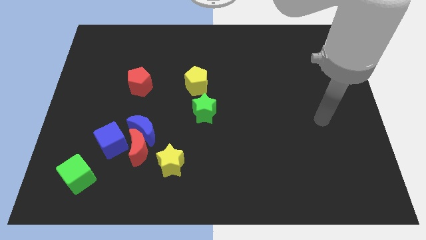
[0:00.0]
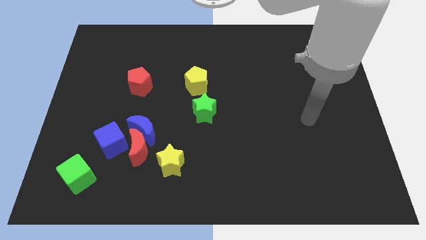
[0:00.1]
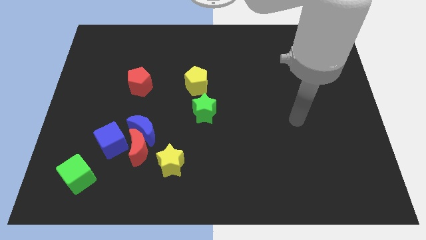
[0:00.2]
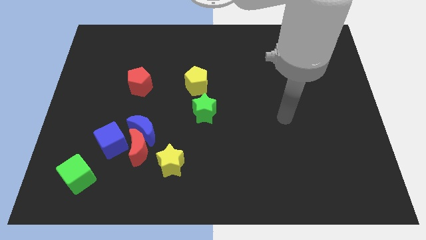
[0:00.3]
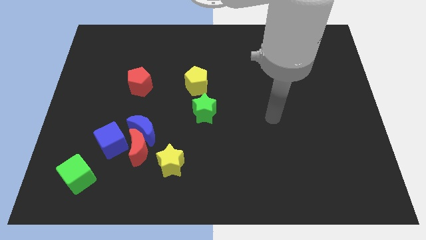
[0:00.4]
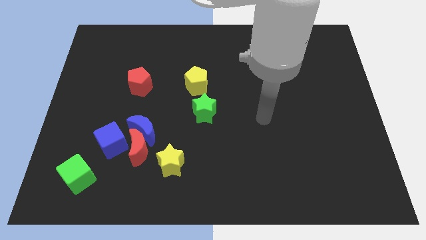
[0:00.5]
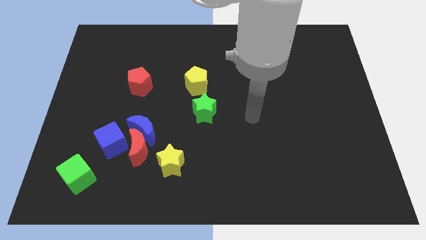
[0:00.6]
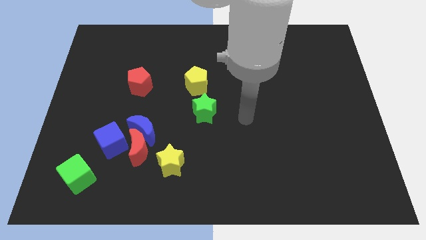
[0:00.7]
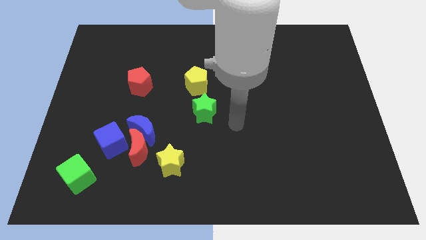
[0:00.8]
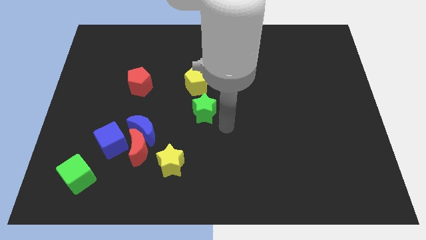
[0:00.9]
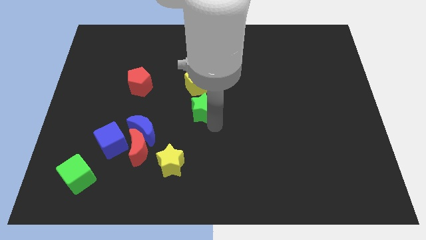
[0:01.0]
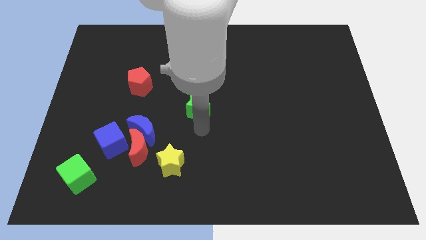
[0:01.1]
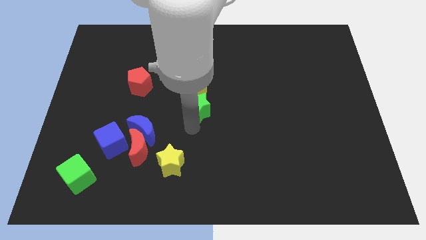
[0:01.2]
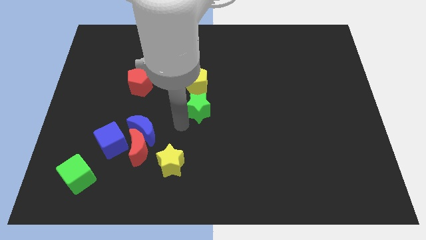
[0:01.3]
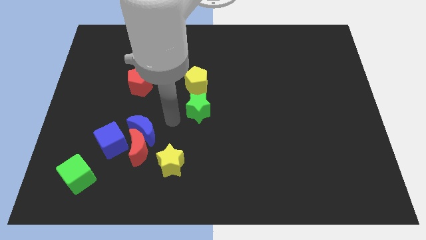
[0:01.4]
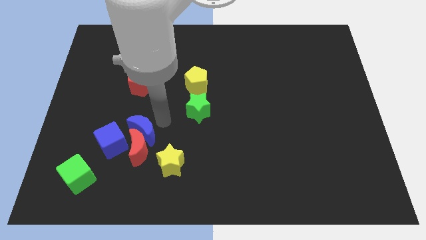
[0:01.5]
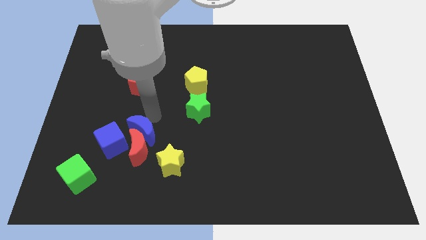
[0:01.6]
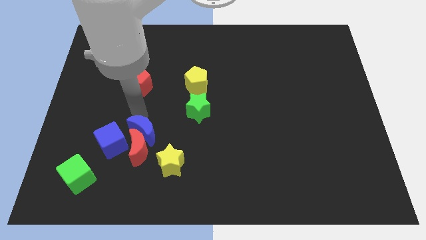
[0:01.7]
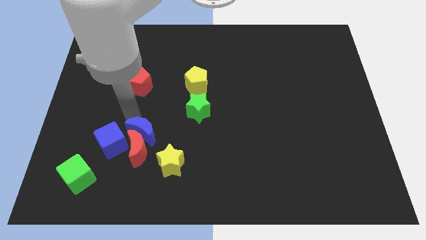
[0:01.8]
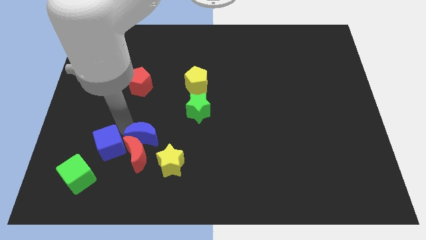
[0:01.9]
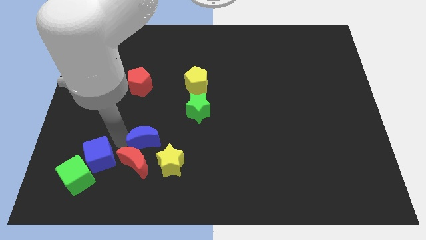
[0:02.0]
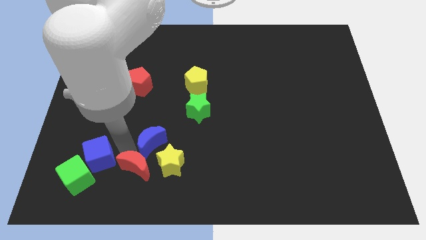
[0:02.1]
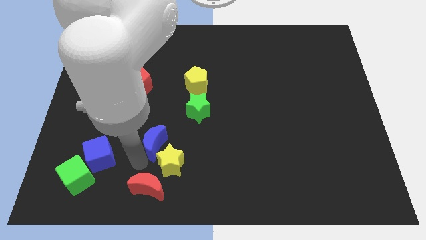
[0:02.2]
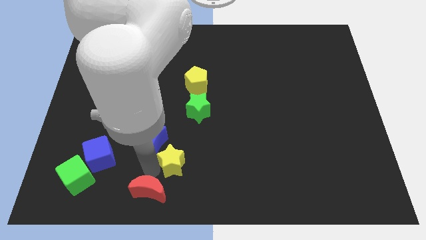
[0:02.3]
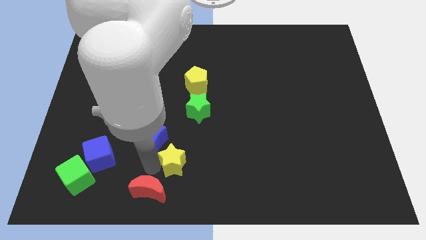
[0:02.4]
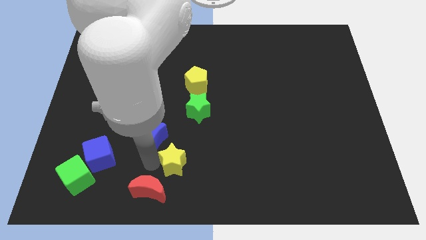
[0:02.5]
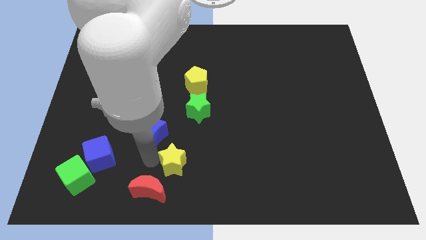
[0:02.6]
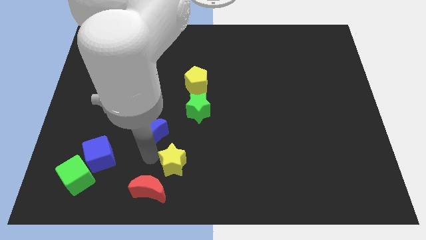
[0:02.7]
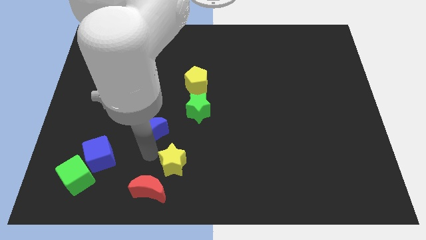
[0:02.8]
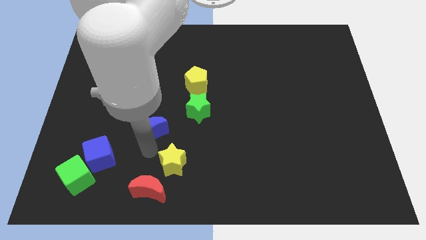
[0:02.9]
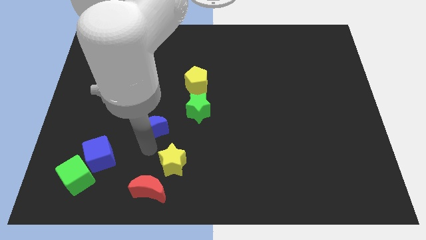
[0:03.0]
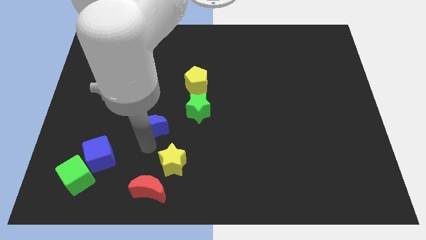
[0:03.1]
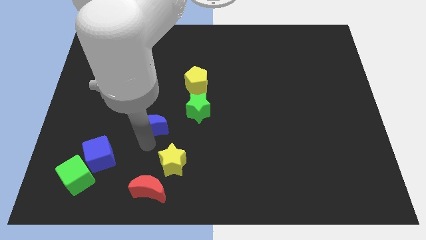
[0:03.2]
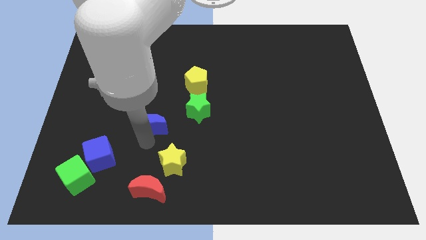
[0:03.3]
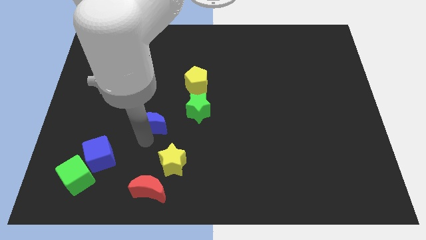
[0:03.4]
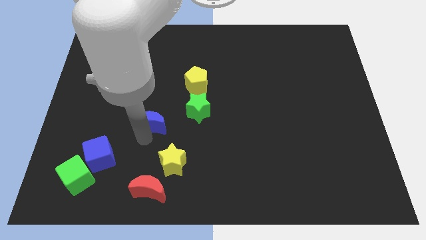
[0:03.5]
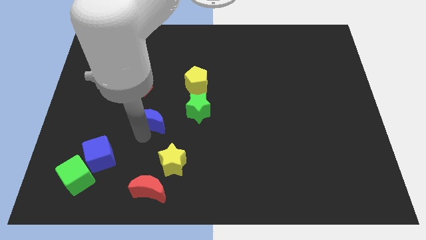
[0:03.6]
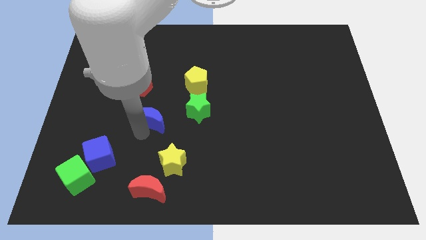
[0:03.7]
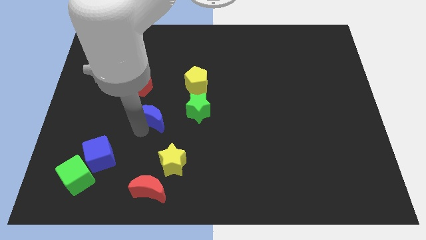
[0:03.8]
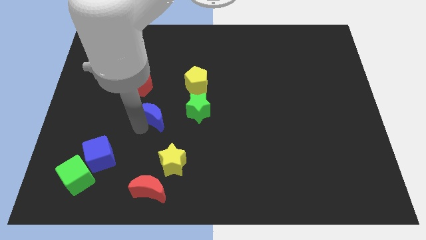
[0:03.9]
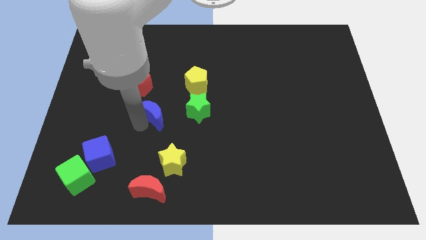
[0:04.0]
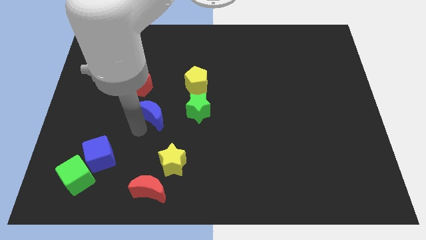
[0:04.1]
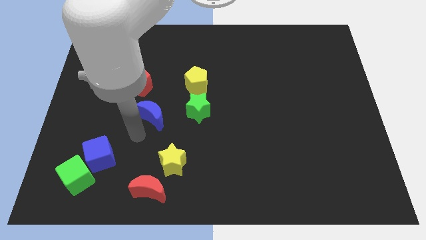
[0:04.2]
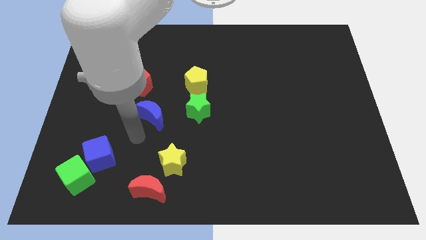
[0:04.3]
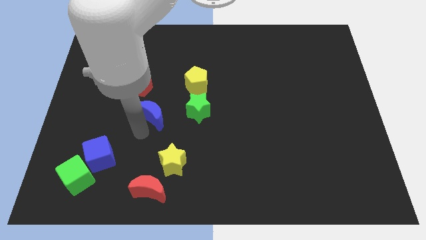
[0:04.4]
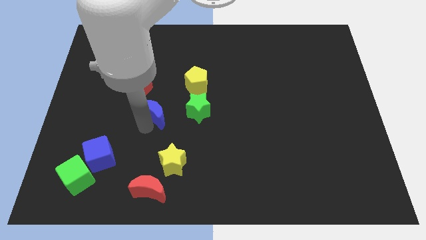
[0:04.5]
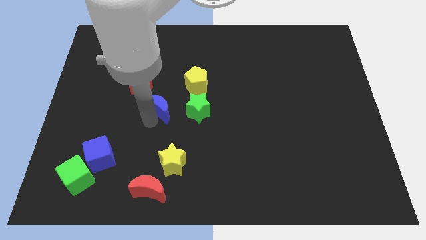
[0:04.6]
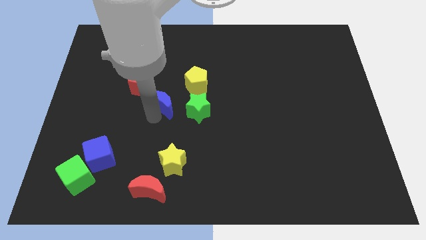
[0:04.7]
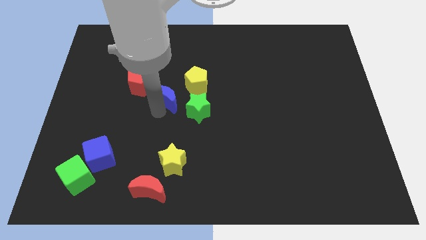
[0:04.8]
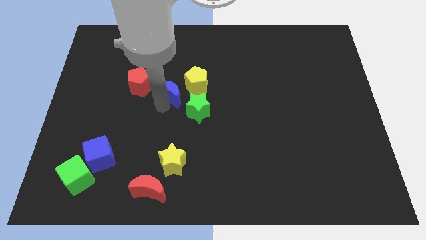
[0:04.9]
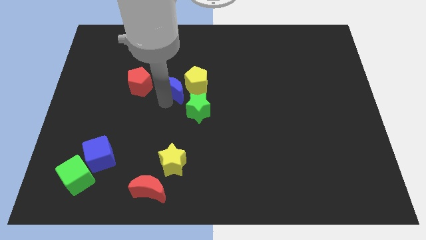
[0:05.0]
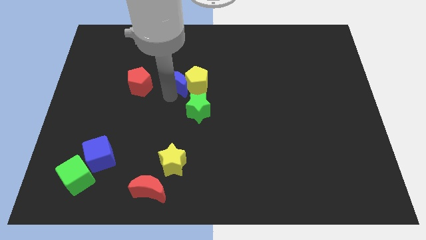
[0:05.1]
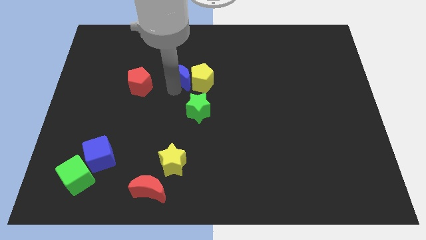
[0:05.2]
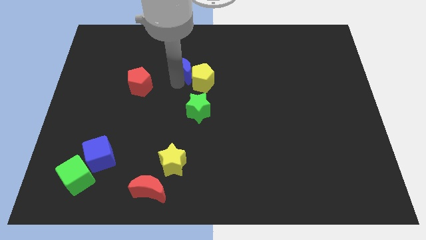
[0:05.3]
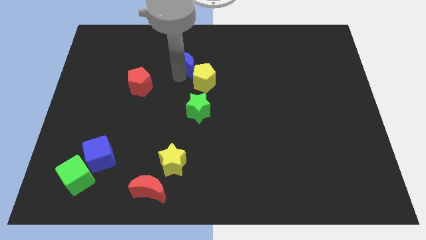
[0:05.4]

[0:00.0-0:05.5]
push the blue moon to the top side of the yellow pentagon

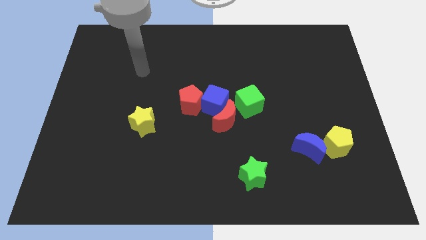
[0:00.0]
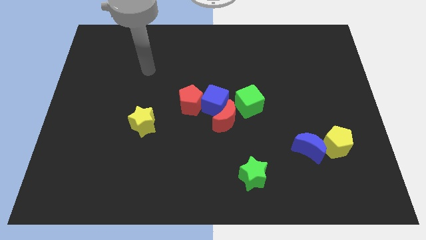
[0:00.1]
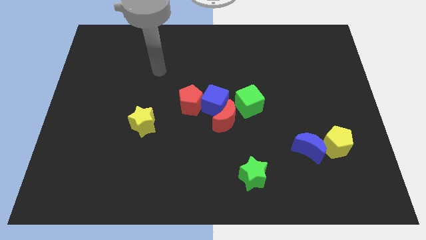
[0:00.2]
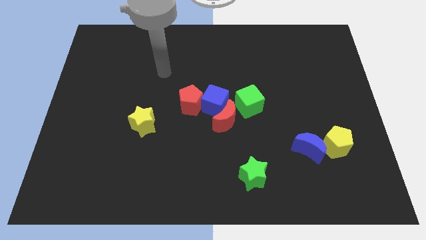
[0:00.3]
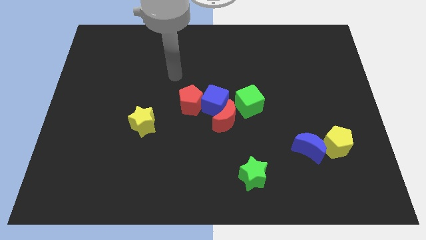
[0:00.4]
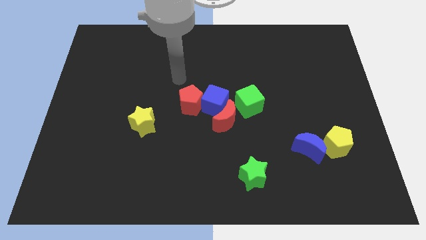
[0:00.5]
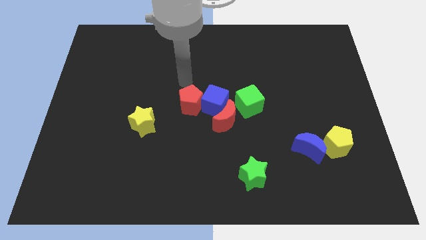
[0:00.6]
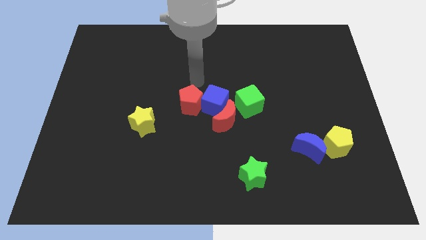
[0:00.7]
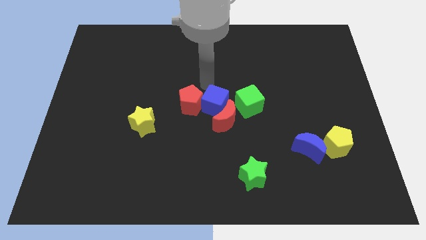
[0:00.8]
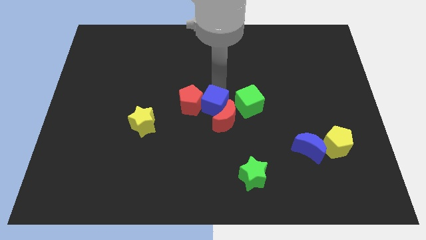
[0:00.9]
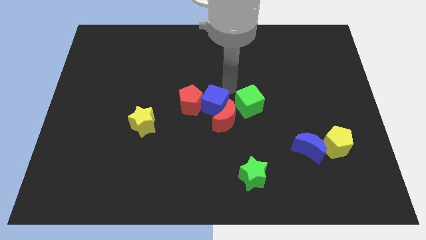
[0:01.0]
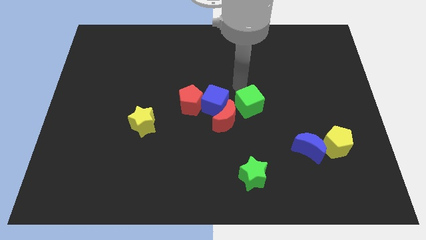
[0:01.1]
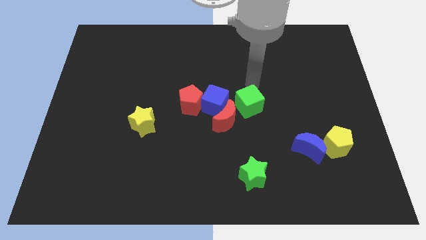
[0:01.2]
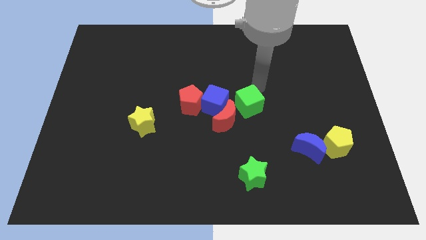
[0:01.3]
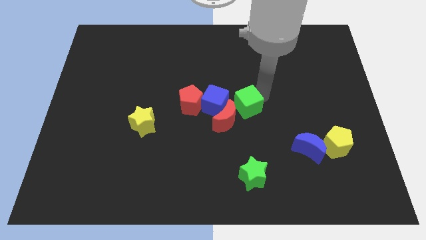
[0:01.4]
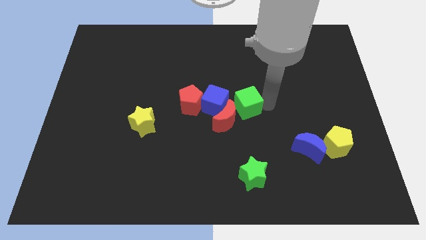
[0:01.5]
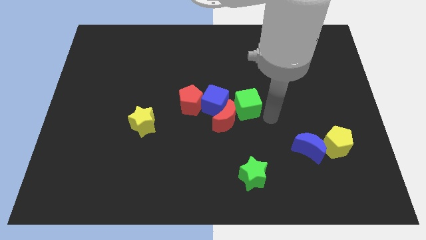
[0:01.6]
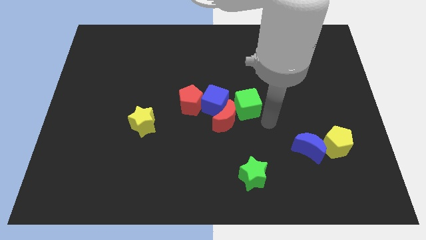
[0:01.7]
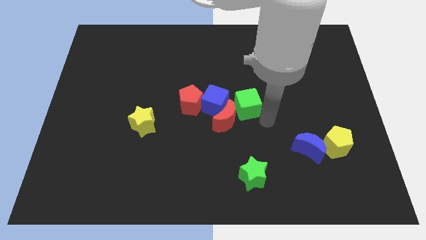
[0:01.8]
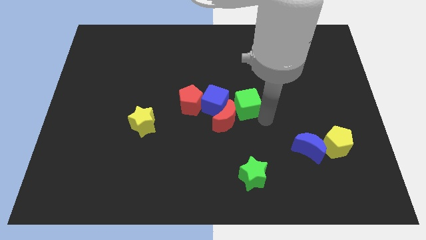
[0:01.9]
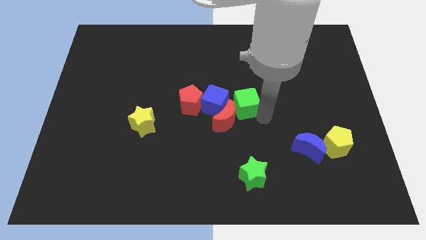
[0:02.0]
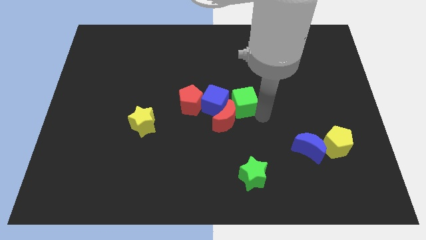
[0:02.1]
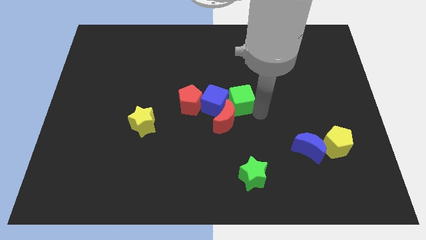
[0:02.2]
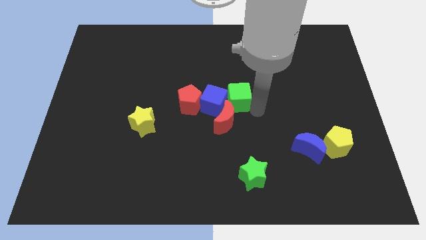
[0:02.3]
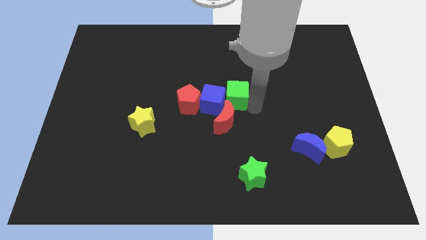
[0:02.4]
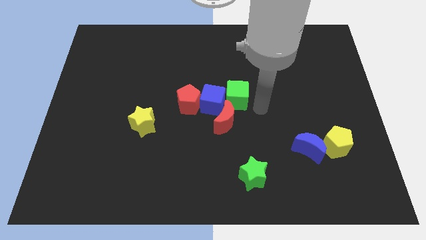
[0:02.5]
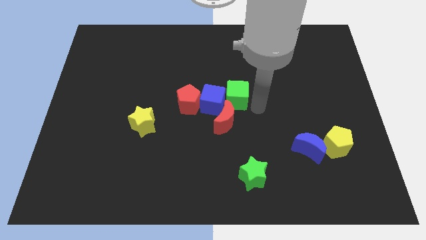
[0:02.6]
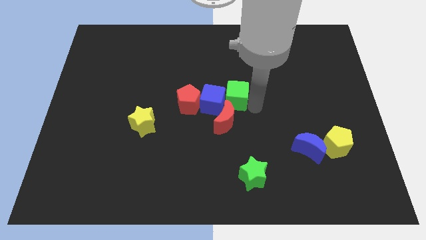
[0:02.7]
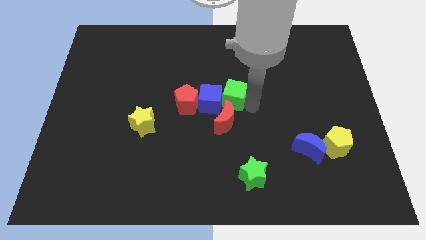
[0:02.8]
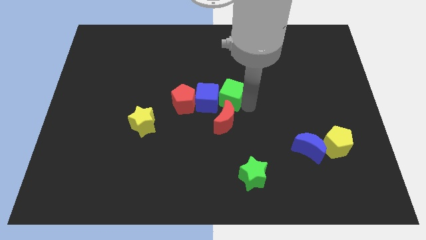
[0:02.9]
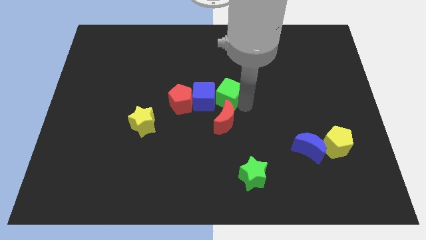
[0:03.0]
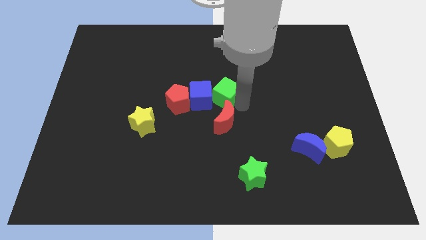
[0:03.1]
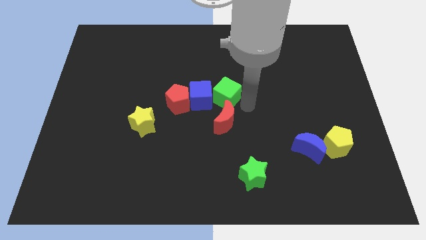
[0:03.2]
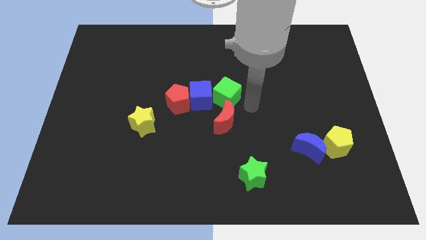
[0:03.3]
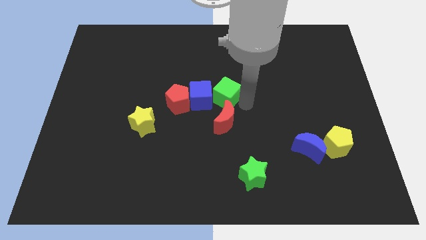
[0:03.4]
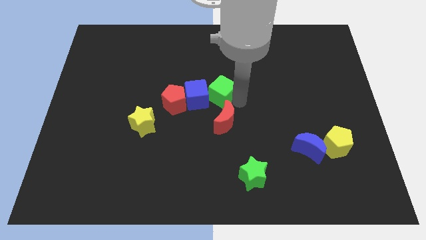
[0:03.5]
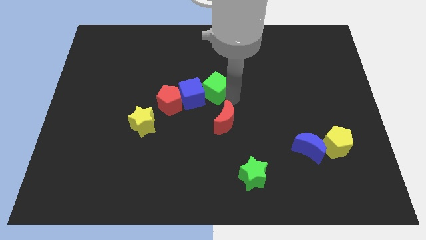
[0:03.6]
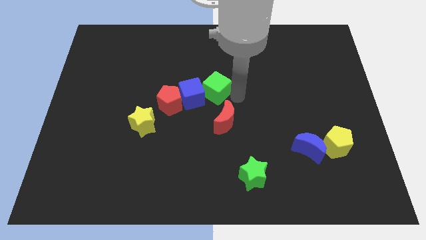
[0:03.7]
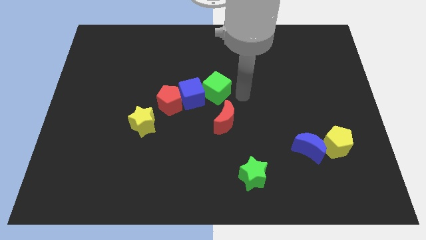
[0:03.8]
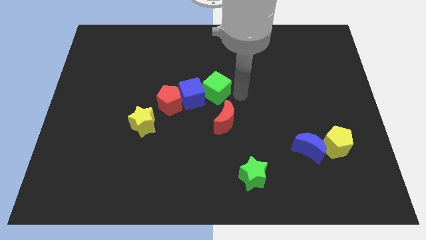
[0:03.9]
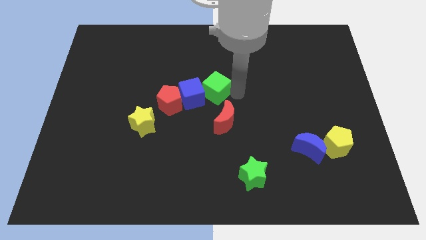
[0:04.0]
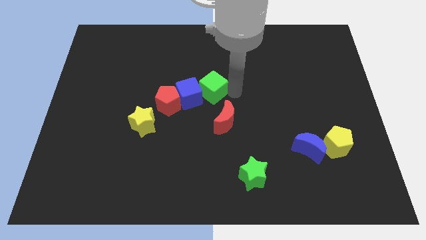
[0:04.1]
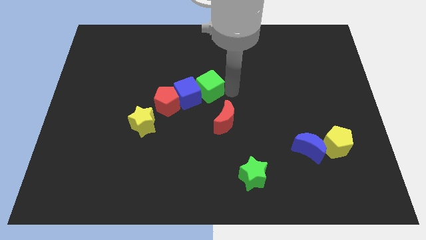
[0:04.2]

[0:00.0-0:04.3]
slide the green cube to the top right side of the red pentagon
